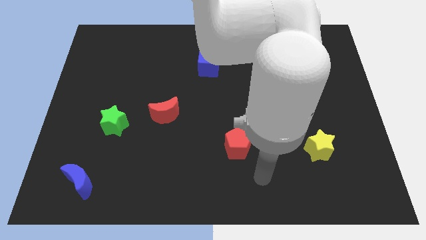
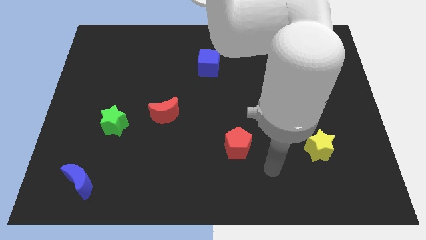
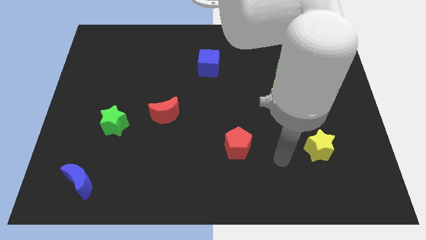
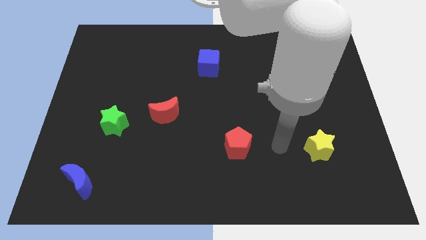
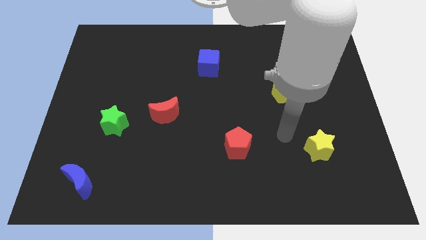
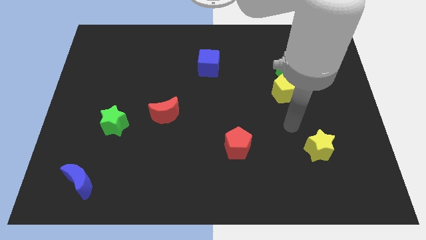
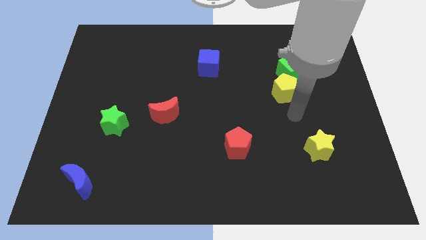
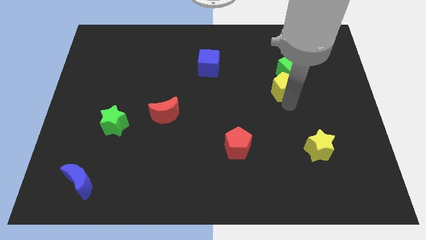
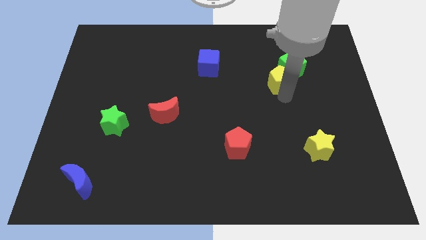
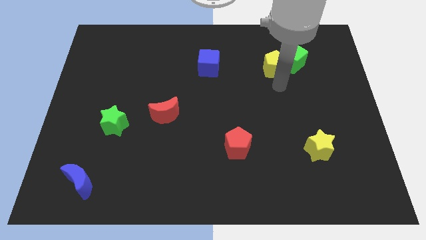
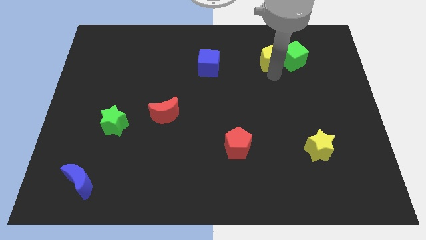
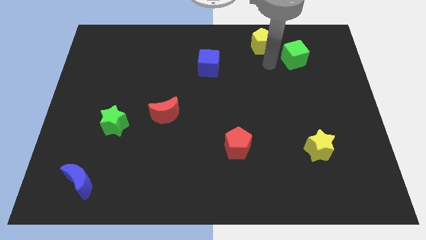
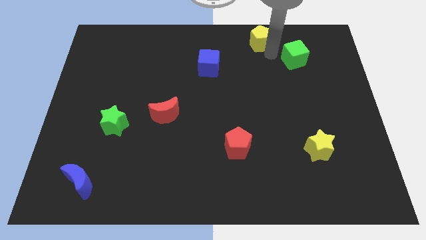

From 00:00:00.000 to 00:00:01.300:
pull the green cube apart from the yellow pentagon

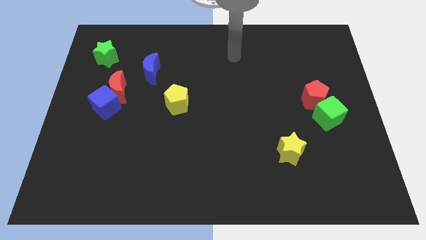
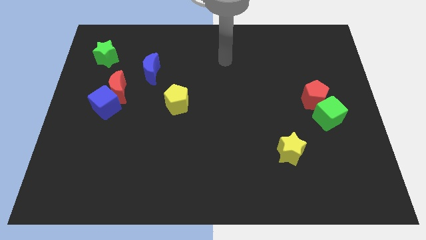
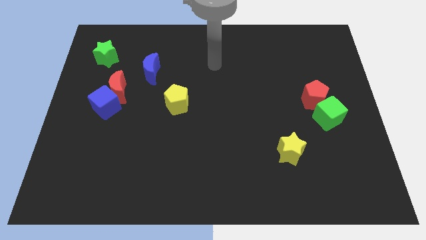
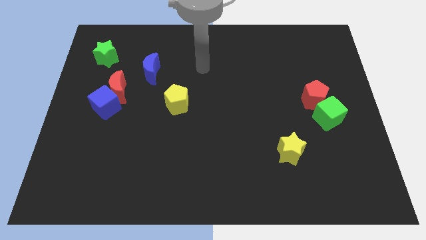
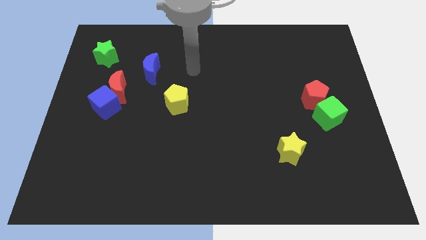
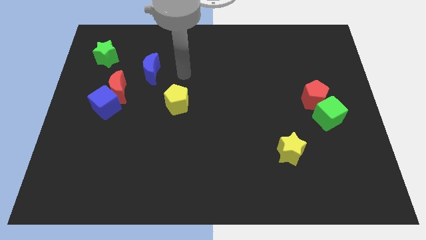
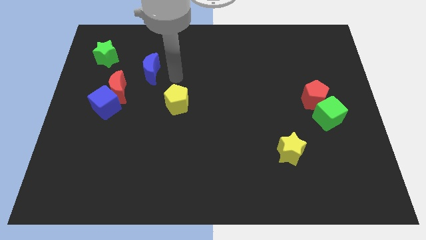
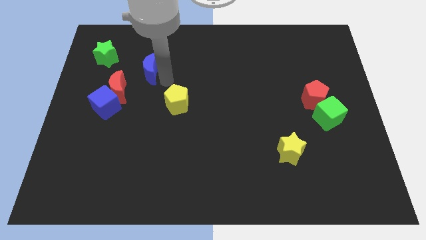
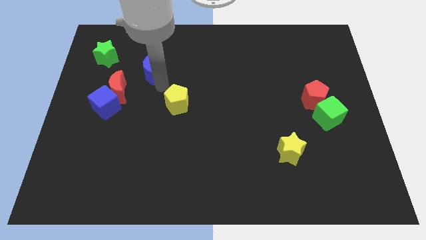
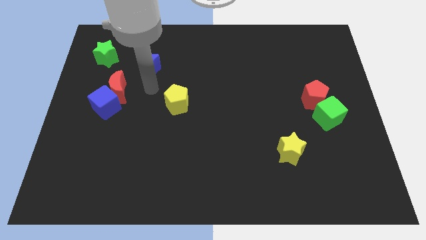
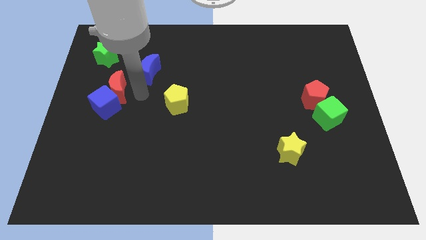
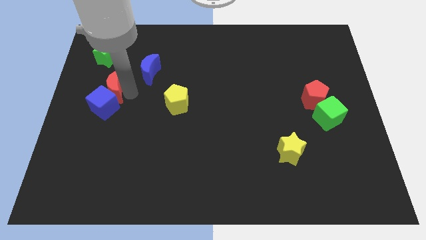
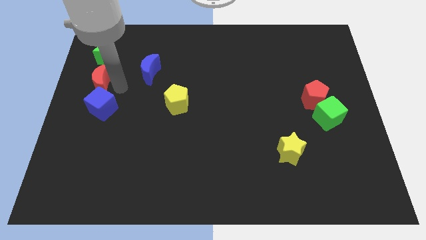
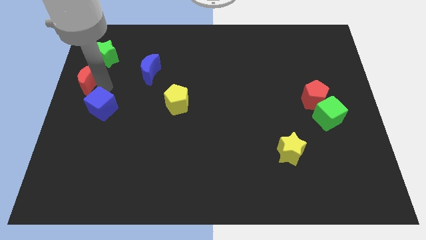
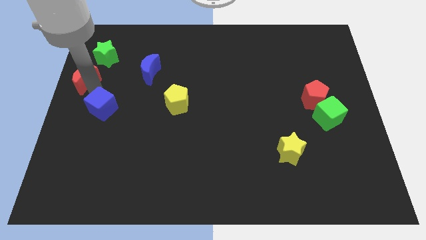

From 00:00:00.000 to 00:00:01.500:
separate the blue cube from the red moon

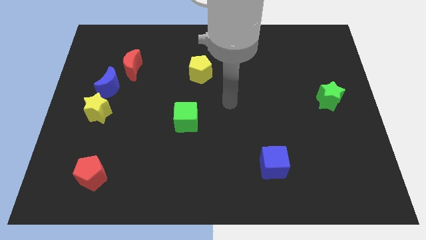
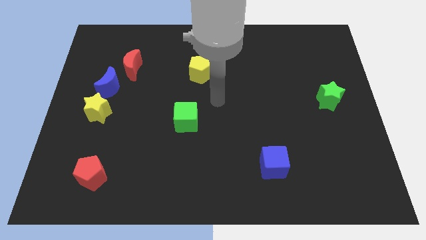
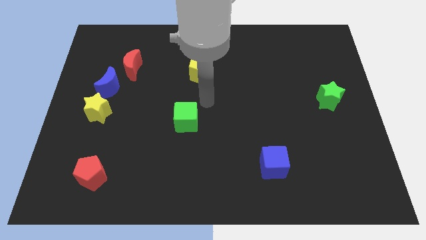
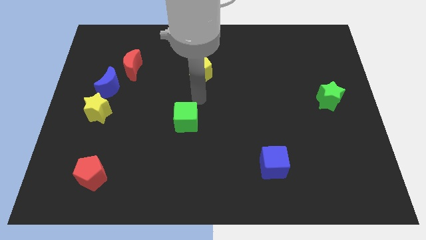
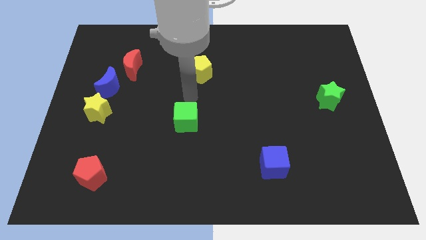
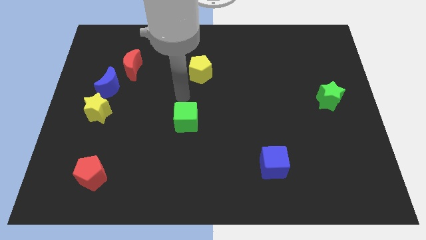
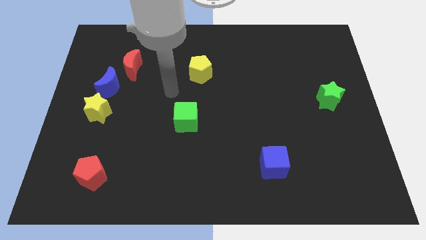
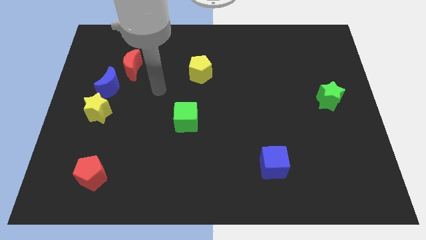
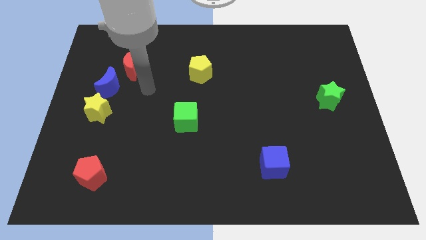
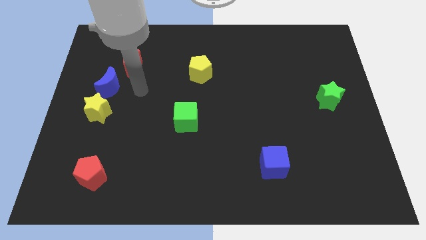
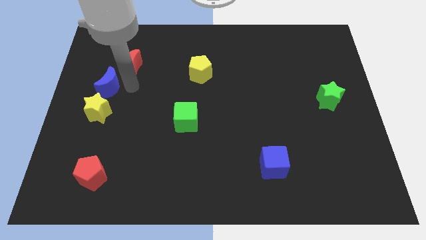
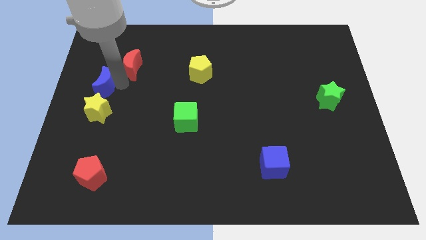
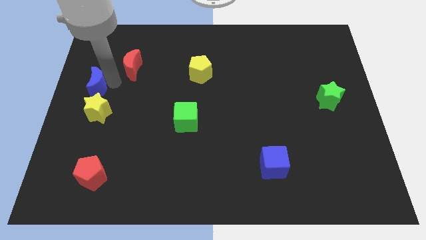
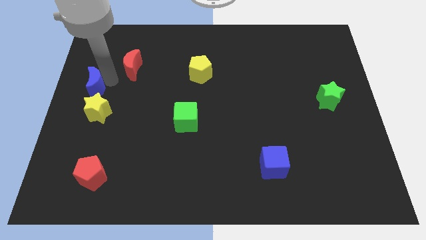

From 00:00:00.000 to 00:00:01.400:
separate the red moon from the blue moon

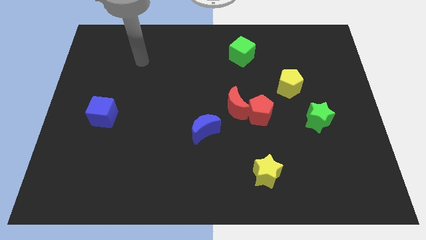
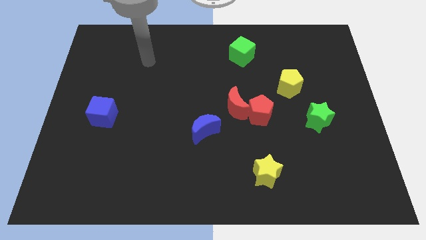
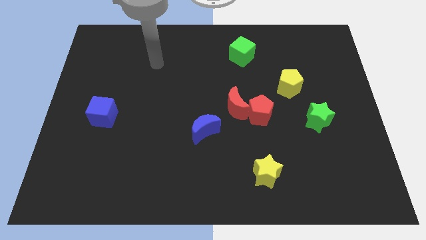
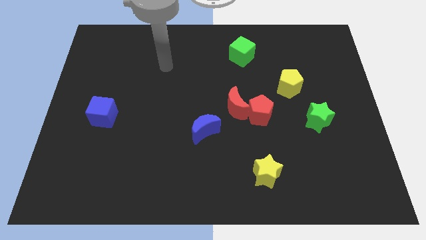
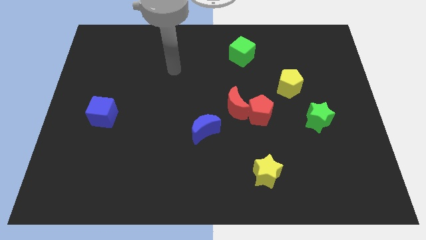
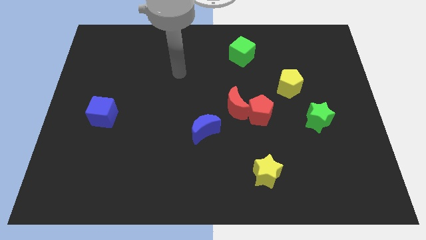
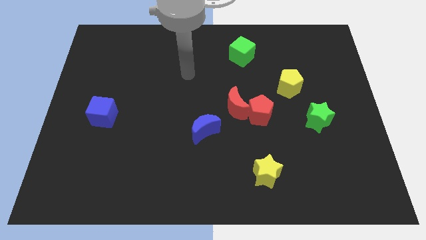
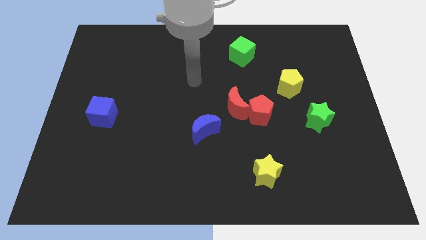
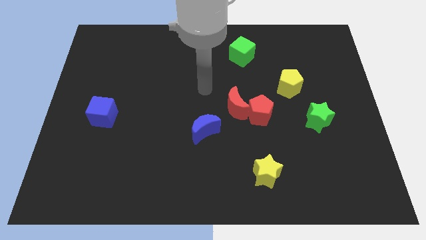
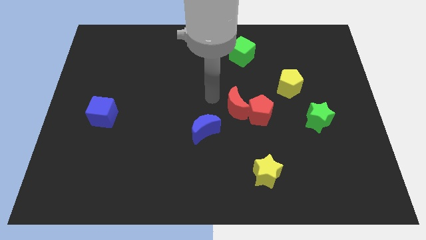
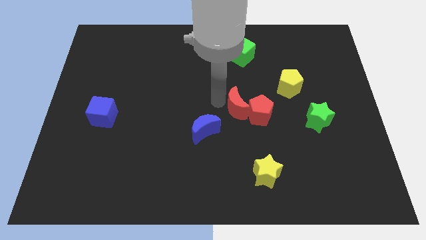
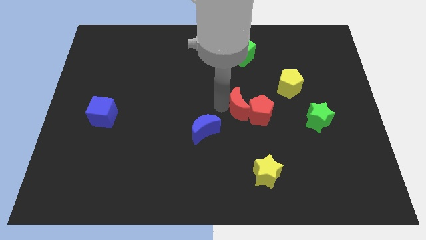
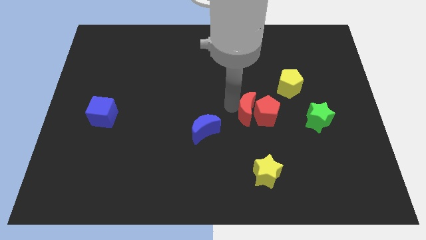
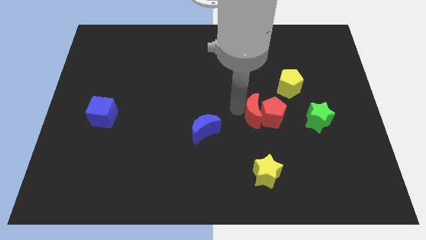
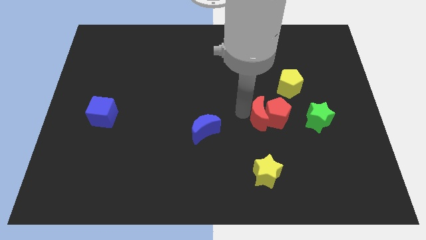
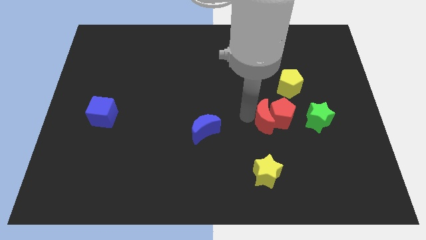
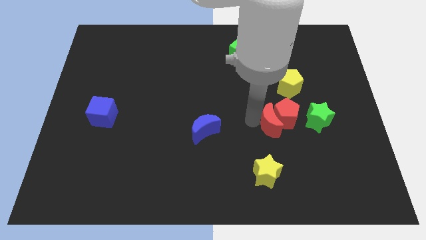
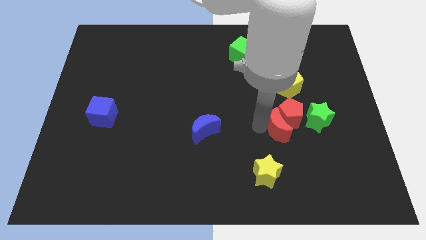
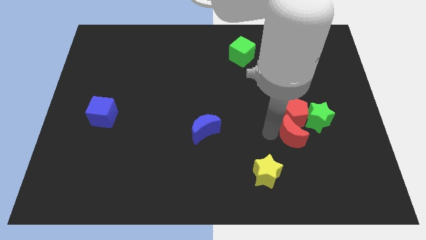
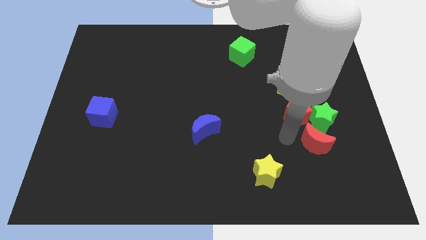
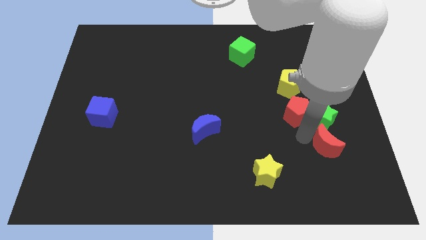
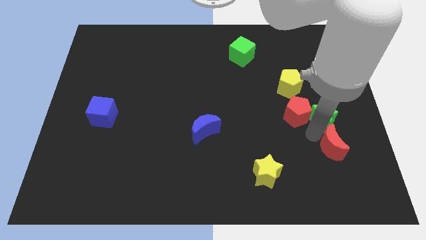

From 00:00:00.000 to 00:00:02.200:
separate the red pentagon from the red moon

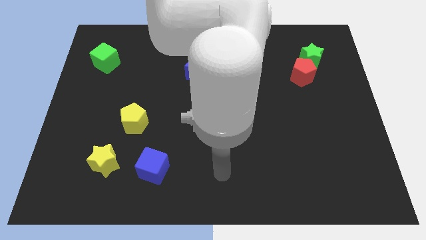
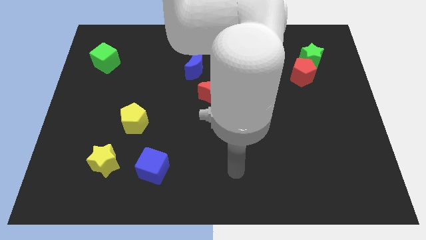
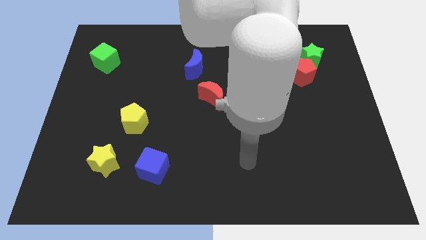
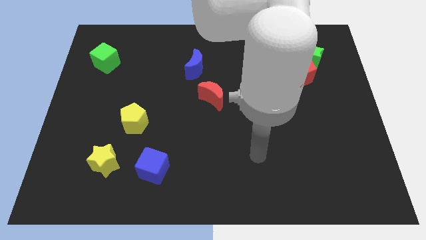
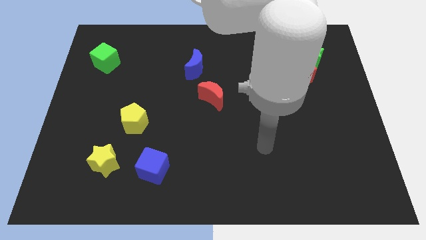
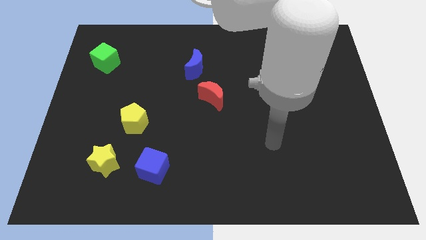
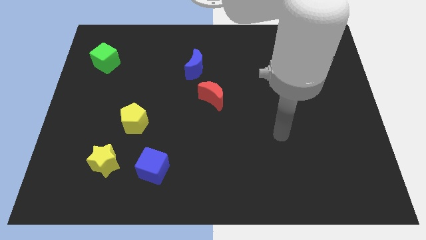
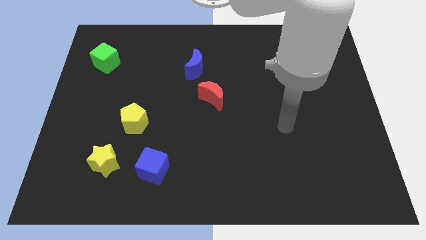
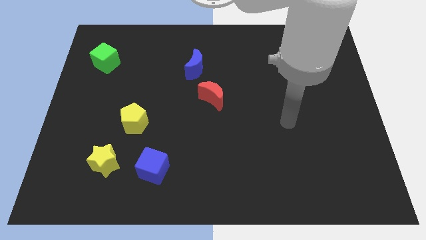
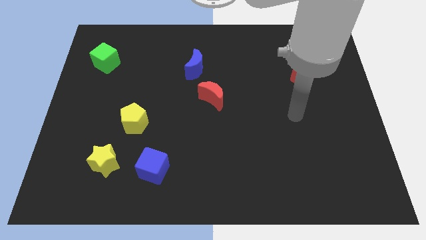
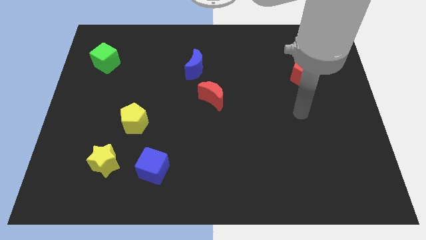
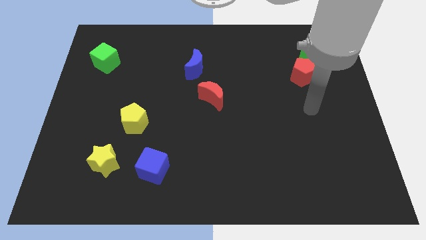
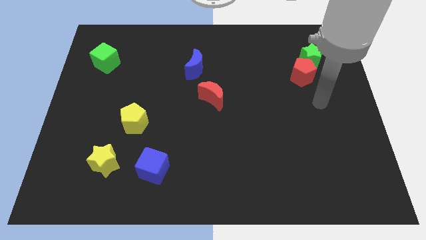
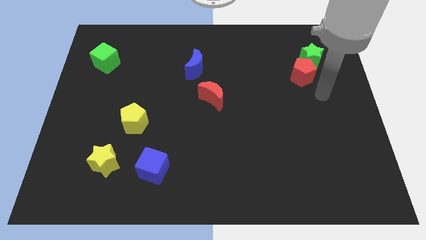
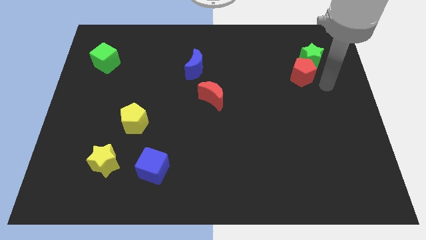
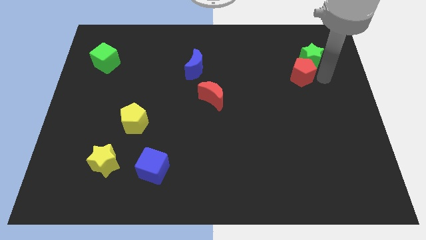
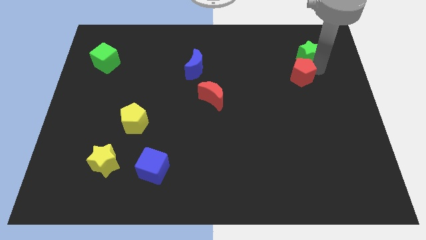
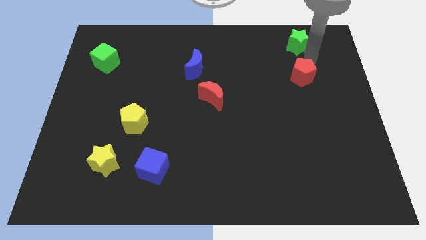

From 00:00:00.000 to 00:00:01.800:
pull the red pentagon apart from the green star

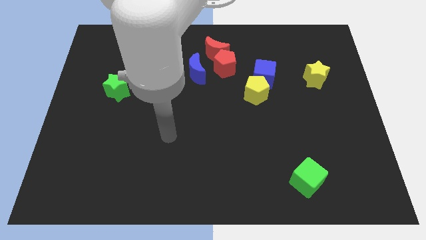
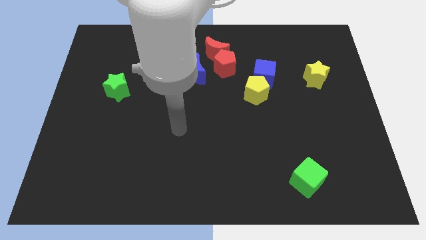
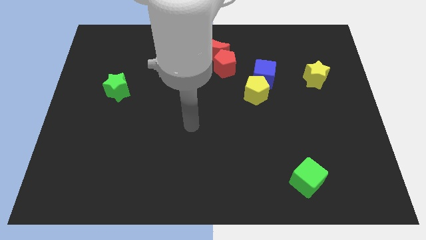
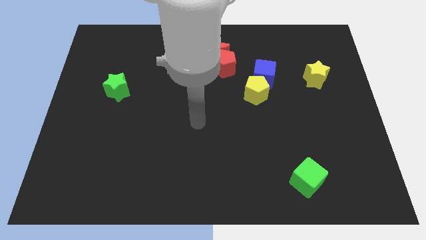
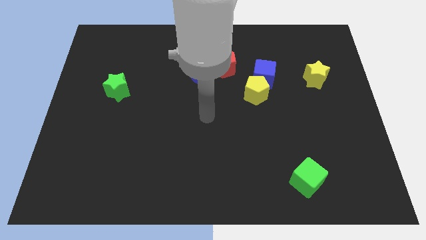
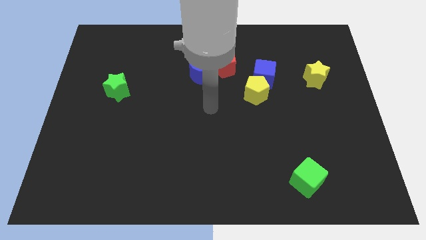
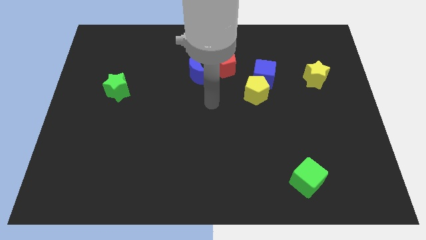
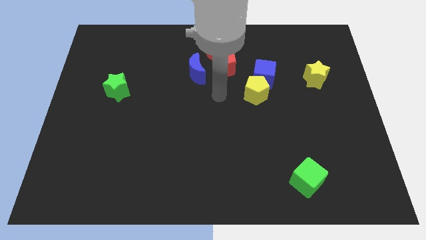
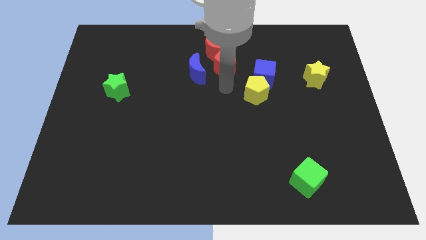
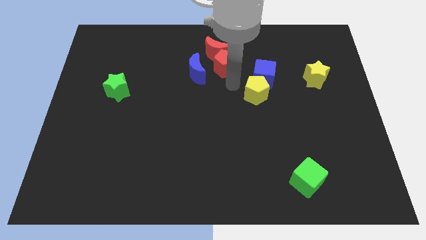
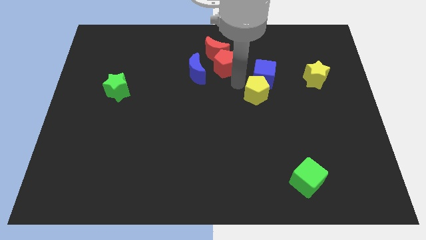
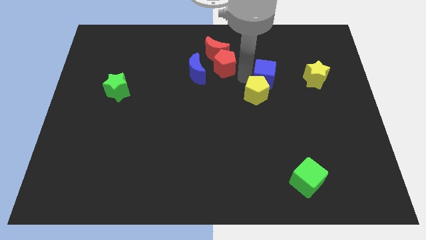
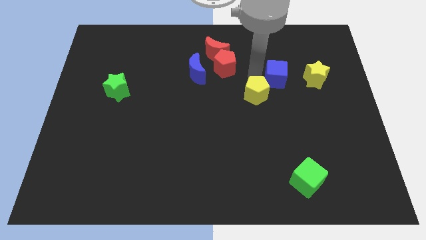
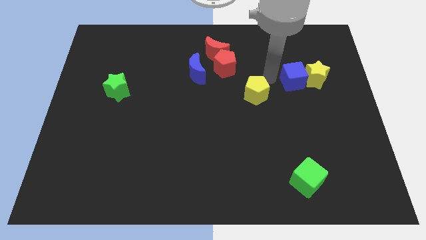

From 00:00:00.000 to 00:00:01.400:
separate the yellow pentagon from the blue cube
